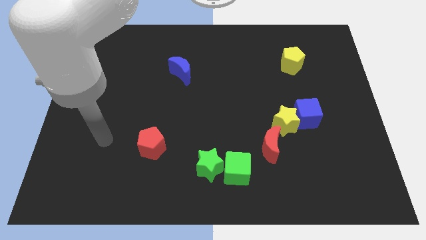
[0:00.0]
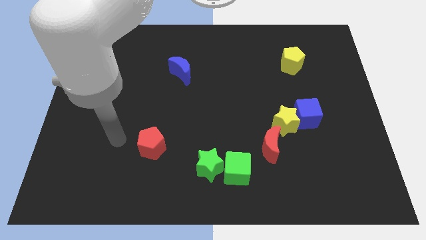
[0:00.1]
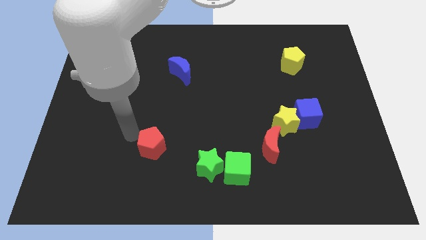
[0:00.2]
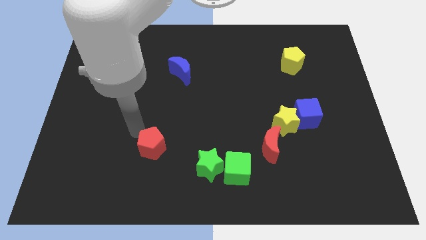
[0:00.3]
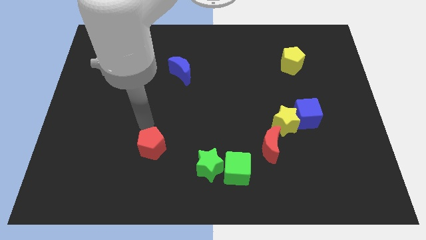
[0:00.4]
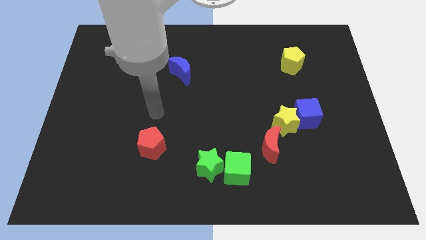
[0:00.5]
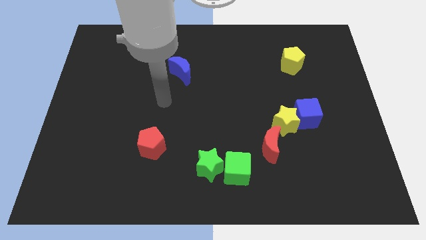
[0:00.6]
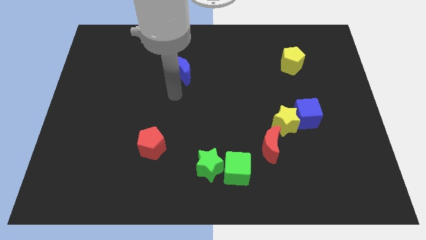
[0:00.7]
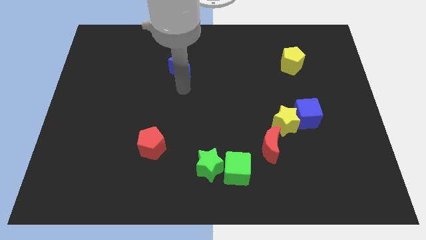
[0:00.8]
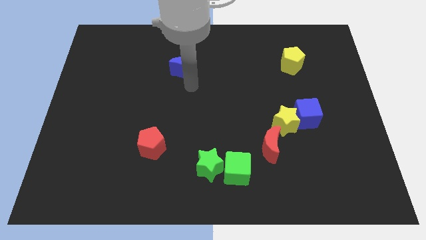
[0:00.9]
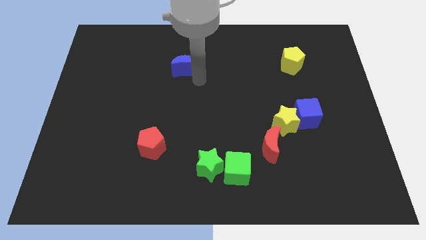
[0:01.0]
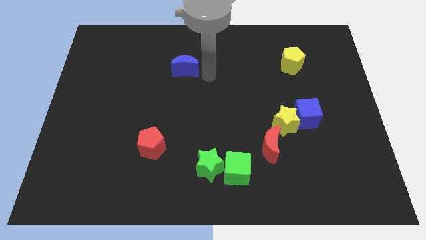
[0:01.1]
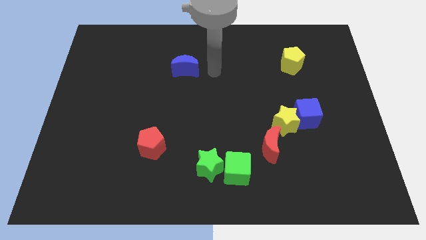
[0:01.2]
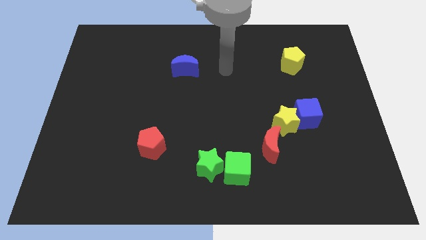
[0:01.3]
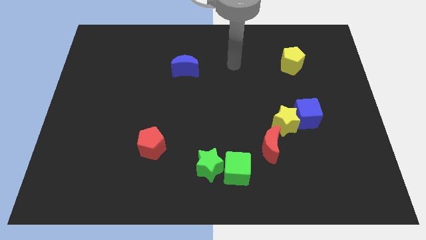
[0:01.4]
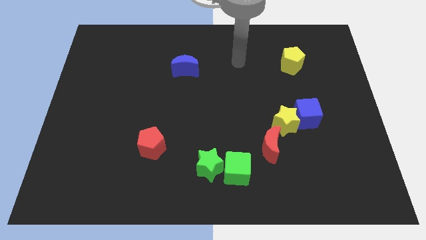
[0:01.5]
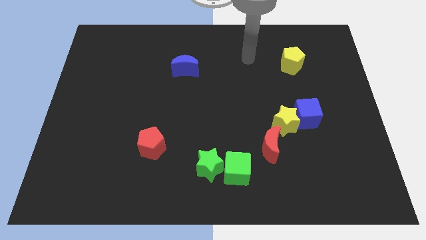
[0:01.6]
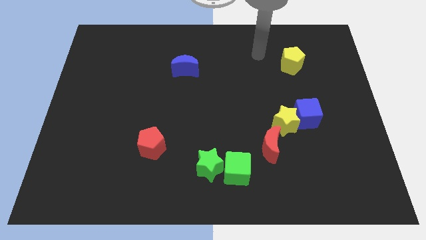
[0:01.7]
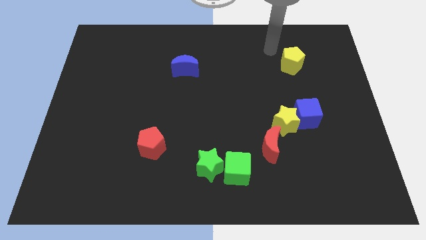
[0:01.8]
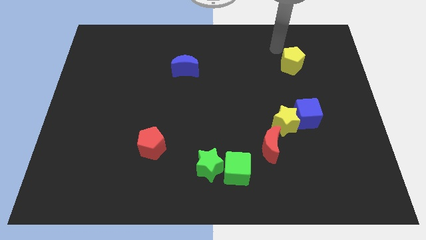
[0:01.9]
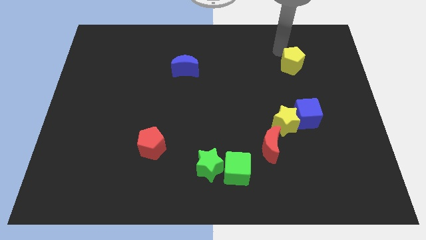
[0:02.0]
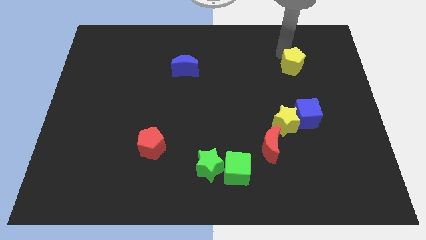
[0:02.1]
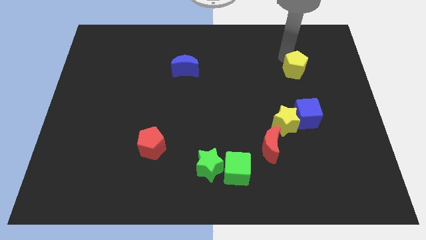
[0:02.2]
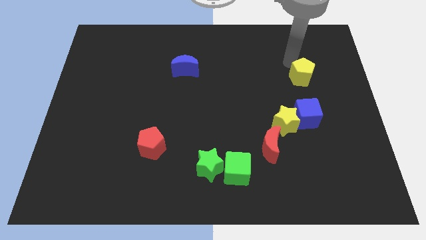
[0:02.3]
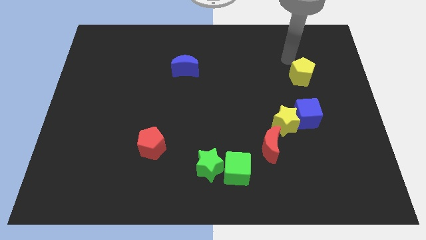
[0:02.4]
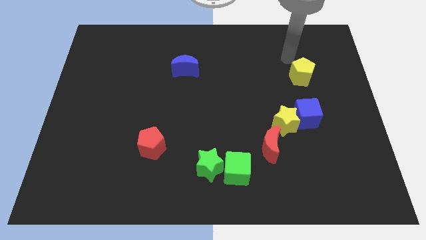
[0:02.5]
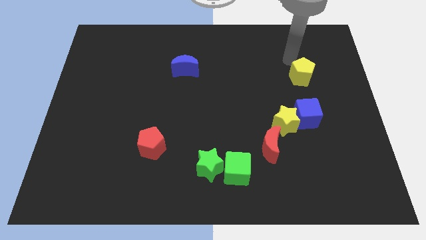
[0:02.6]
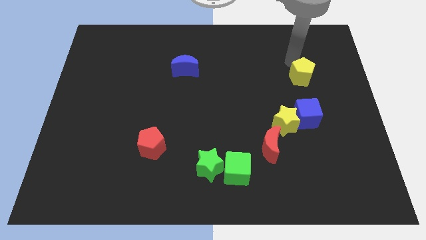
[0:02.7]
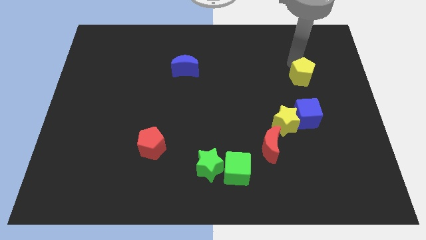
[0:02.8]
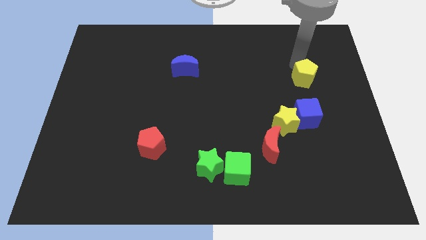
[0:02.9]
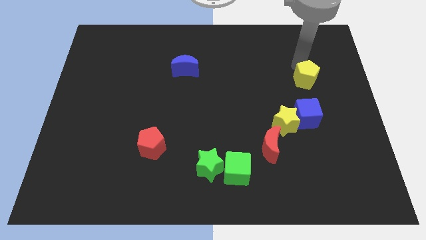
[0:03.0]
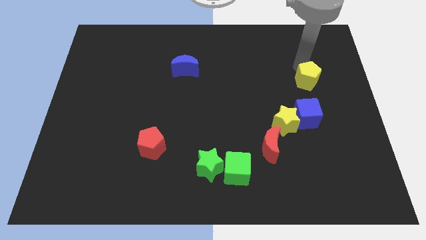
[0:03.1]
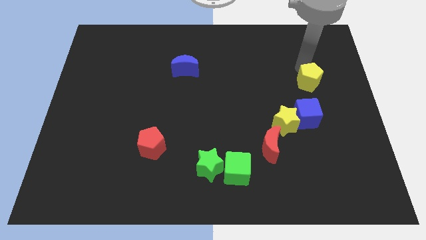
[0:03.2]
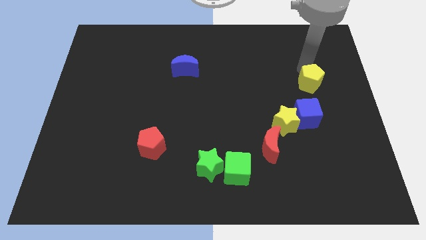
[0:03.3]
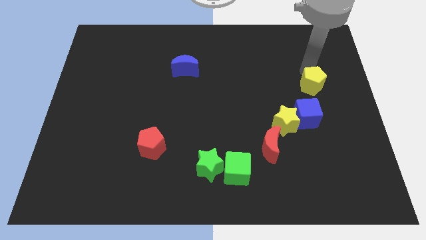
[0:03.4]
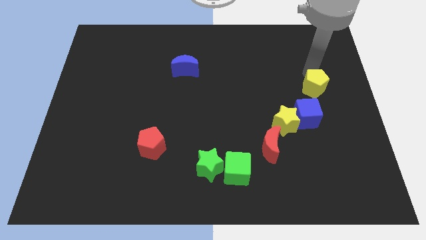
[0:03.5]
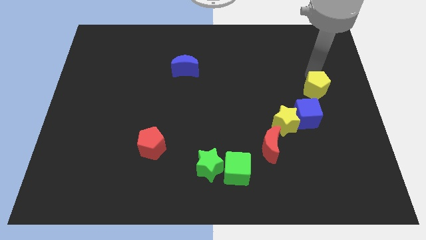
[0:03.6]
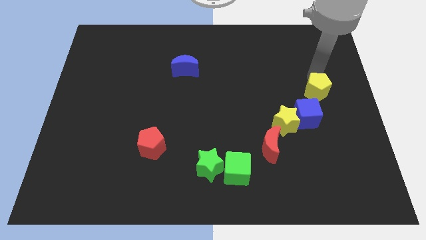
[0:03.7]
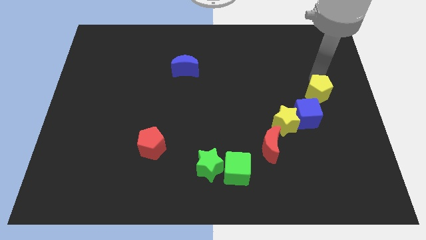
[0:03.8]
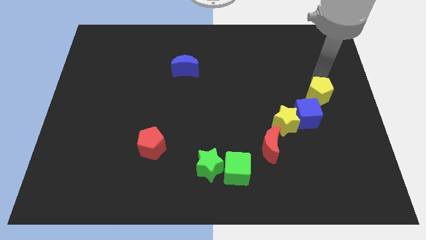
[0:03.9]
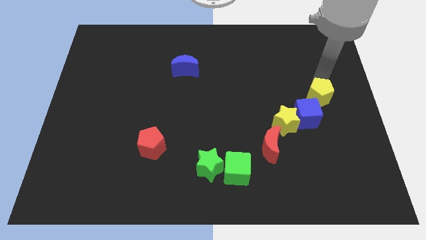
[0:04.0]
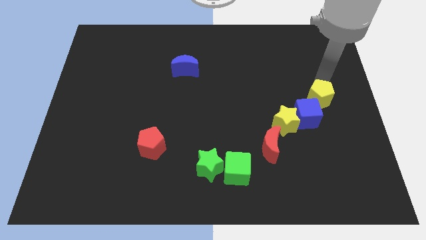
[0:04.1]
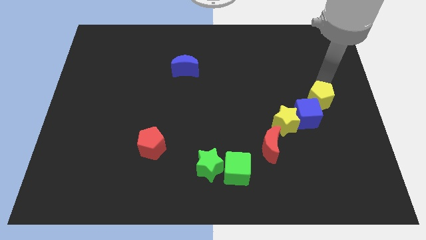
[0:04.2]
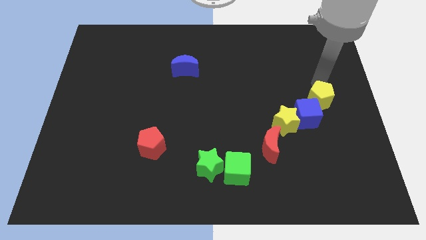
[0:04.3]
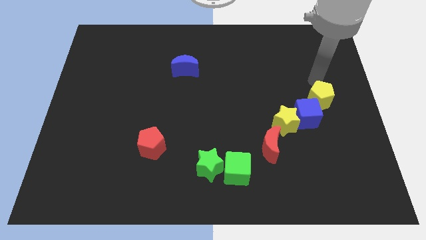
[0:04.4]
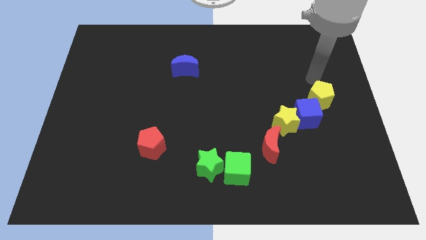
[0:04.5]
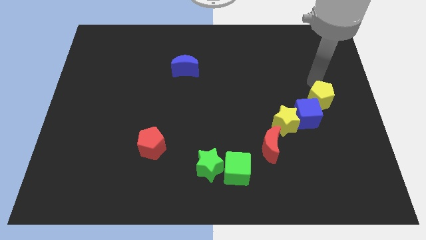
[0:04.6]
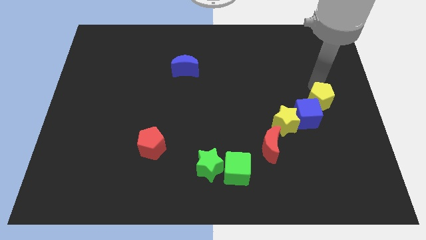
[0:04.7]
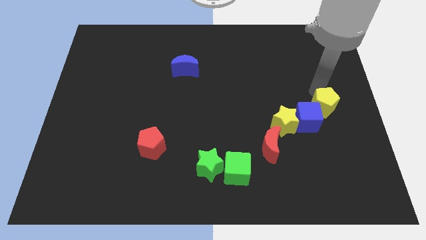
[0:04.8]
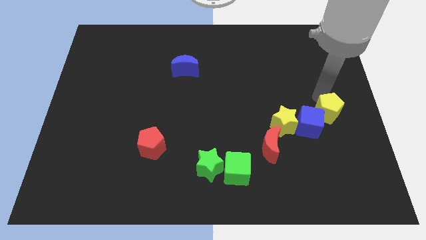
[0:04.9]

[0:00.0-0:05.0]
slide the yellow pentagon just right of the yellow star

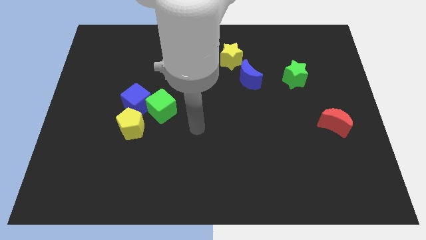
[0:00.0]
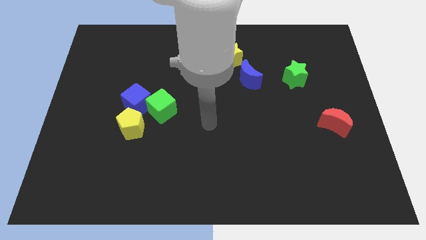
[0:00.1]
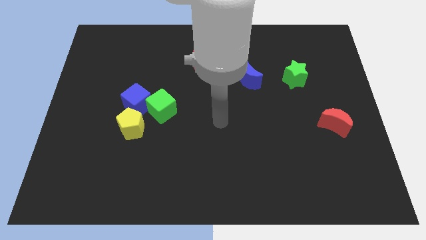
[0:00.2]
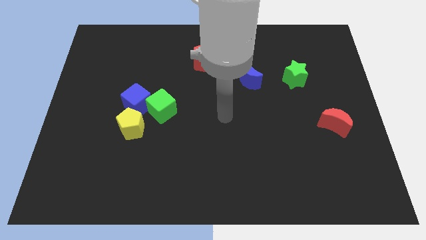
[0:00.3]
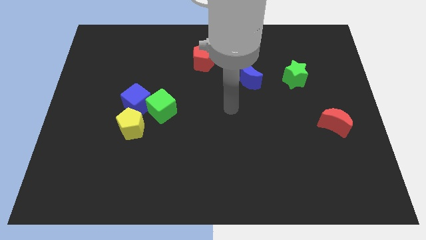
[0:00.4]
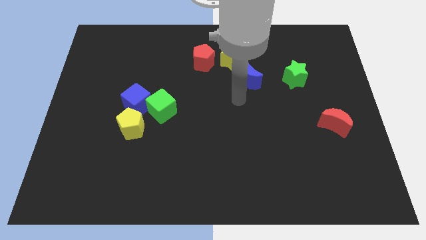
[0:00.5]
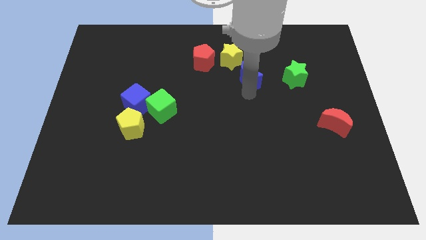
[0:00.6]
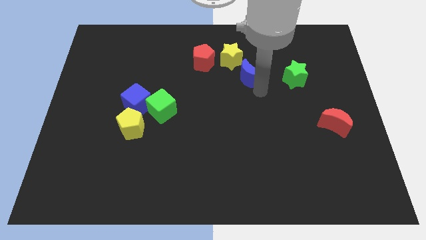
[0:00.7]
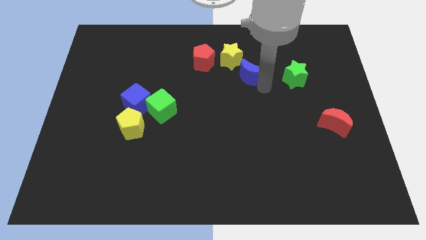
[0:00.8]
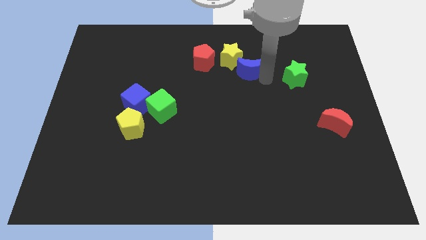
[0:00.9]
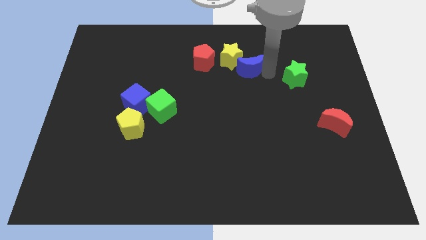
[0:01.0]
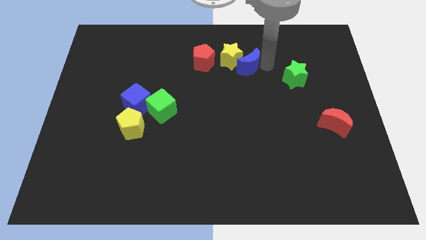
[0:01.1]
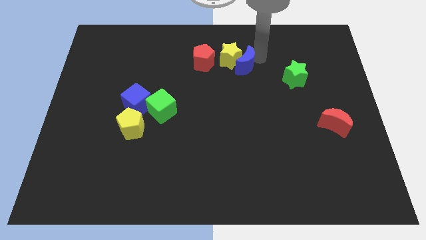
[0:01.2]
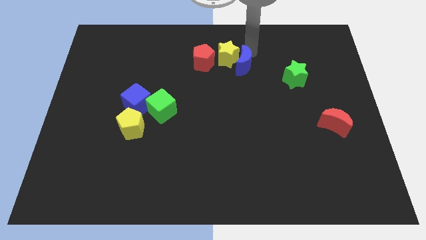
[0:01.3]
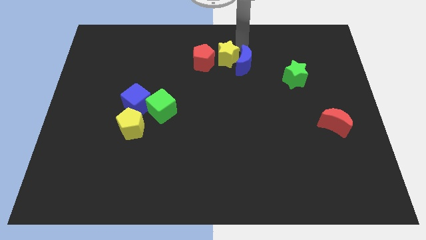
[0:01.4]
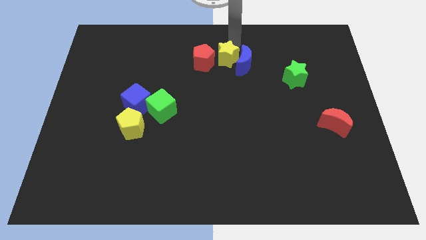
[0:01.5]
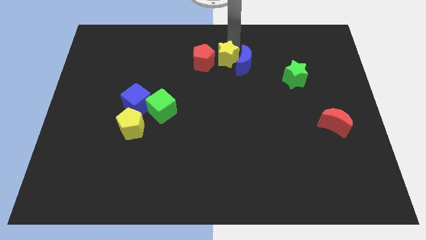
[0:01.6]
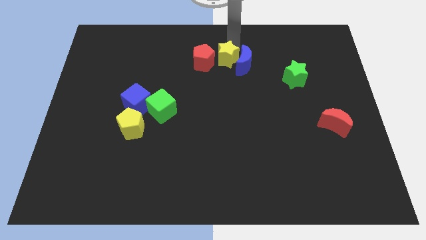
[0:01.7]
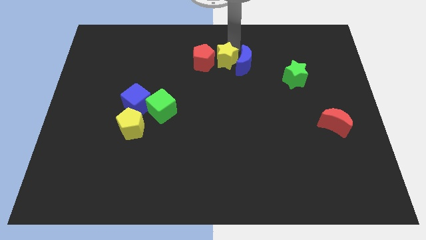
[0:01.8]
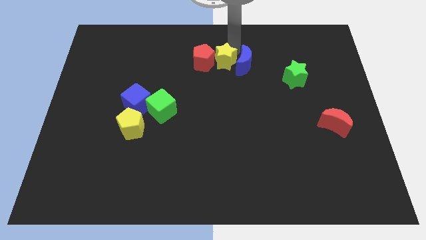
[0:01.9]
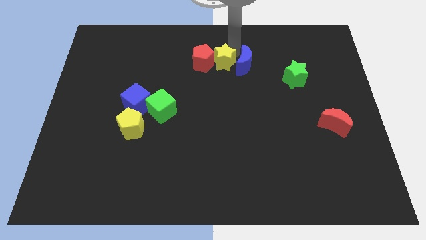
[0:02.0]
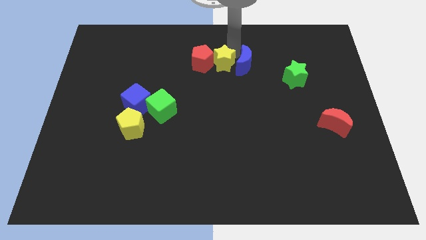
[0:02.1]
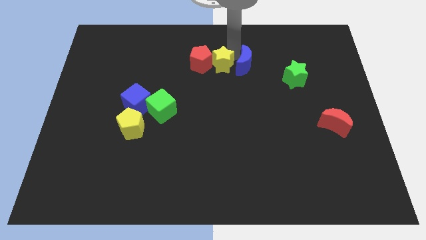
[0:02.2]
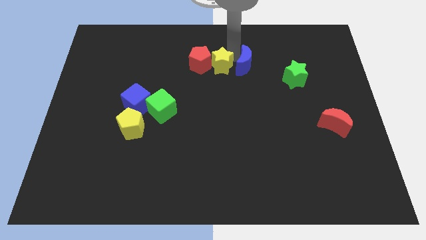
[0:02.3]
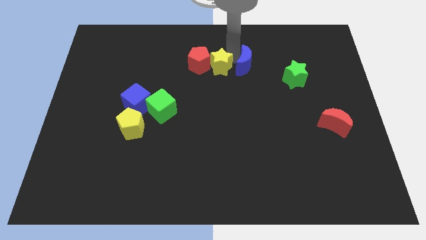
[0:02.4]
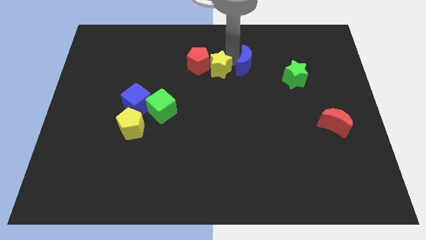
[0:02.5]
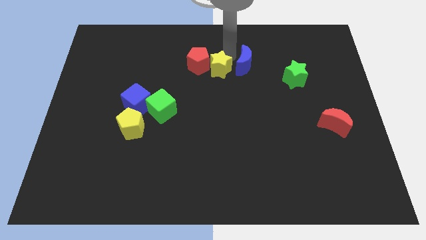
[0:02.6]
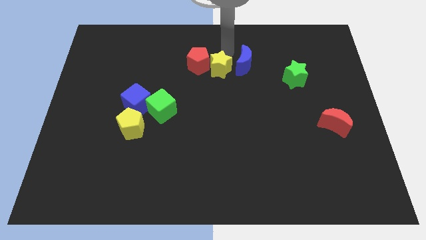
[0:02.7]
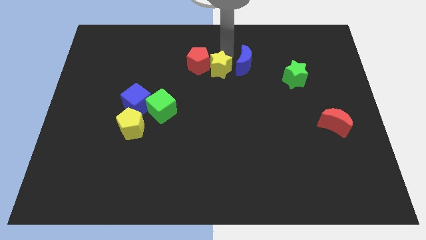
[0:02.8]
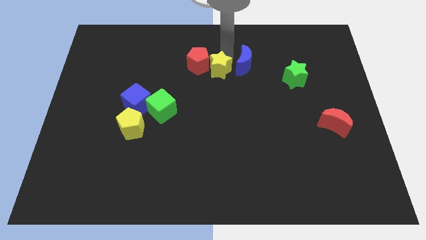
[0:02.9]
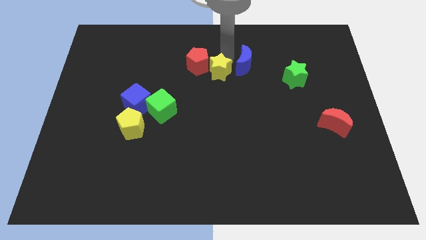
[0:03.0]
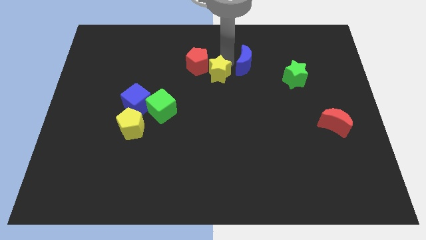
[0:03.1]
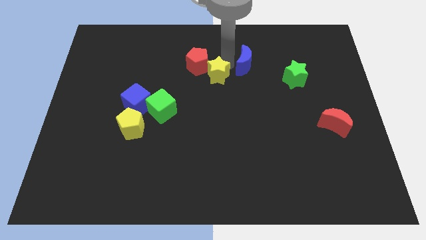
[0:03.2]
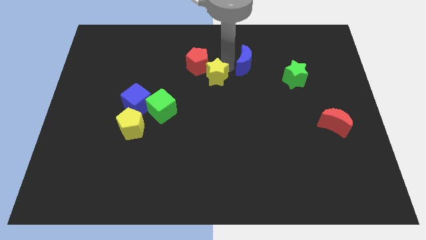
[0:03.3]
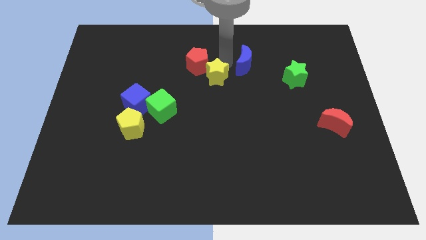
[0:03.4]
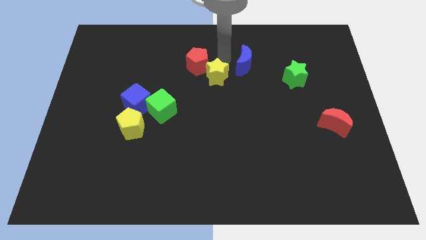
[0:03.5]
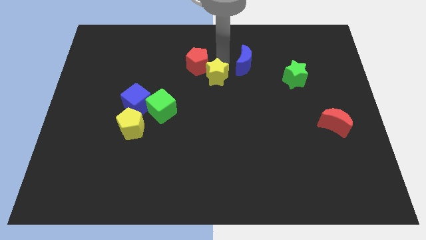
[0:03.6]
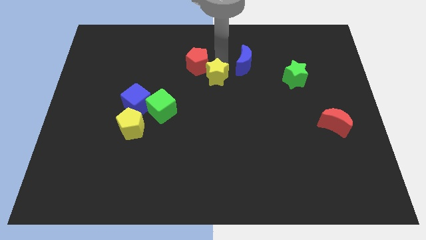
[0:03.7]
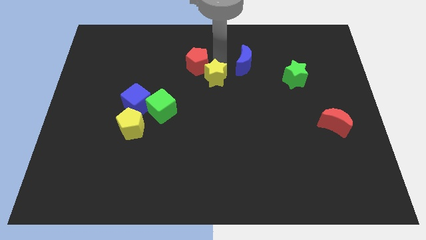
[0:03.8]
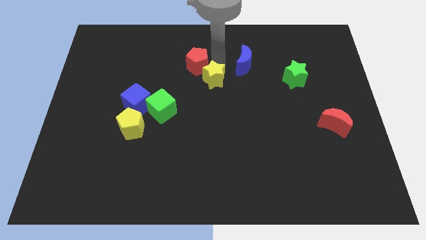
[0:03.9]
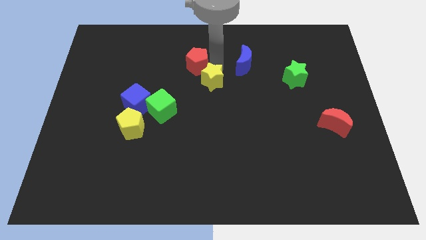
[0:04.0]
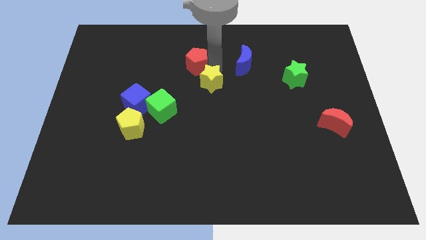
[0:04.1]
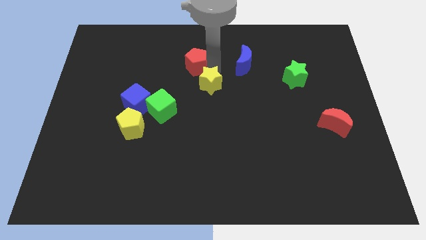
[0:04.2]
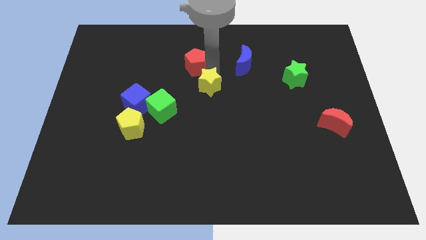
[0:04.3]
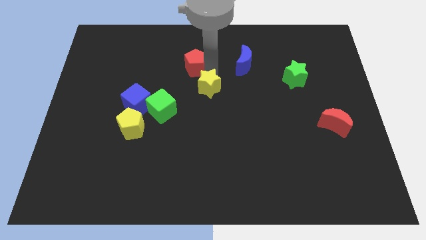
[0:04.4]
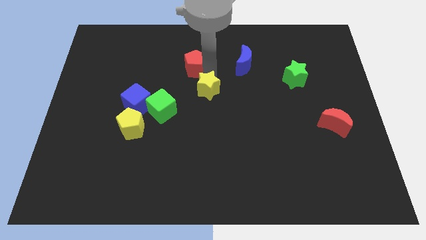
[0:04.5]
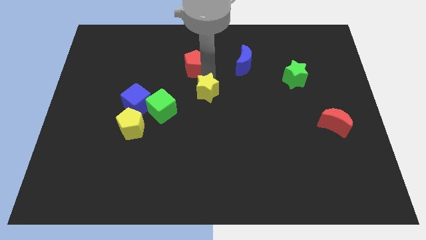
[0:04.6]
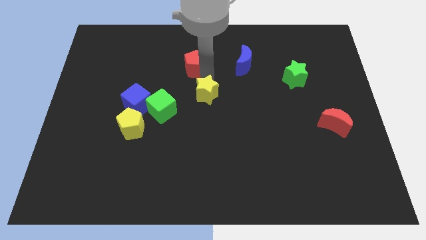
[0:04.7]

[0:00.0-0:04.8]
put the yellow star just right of the green cube
